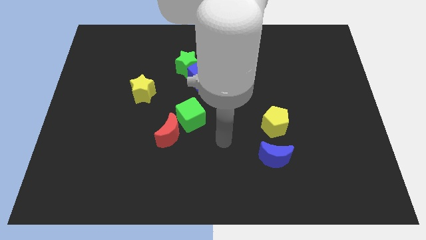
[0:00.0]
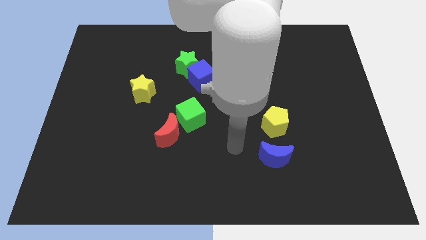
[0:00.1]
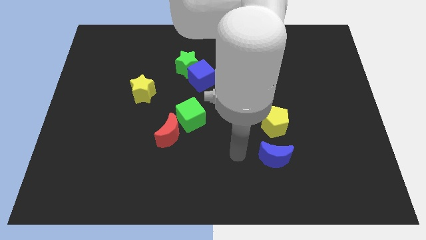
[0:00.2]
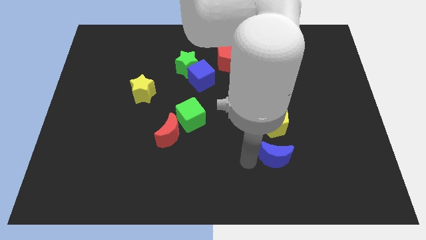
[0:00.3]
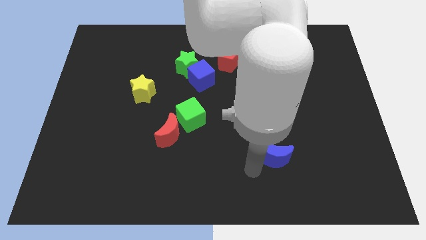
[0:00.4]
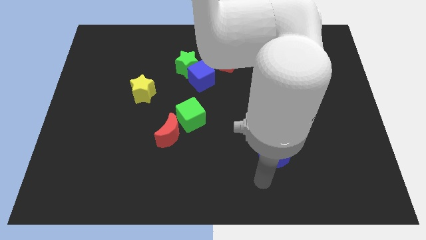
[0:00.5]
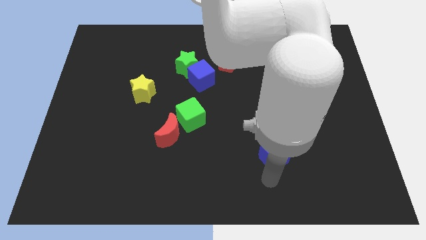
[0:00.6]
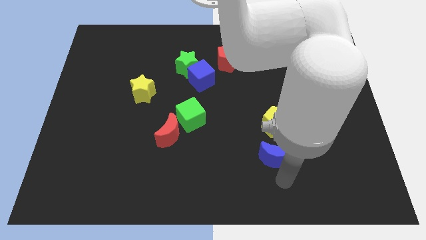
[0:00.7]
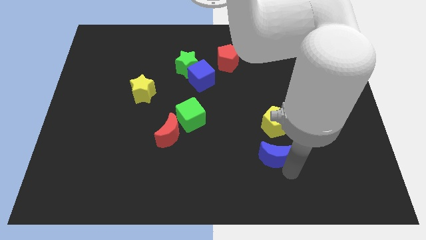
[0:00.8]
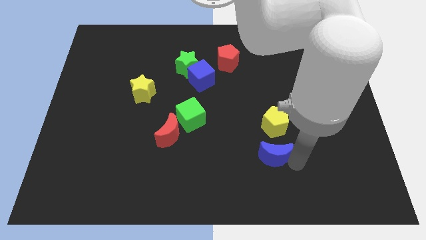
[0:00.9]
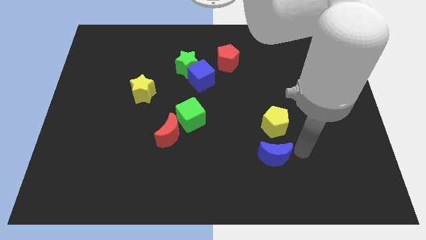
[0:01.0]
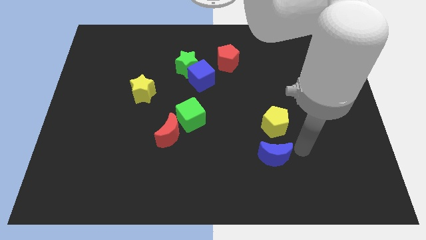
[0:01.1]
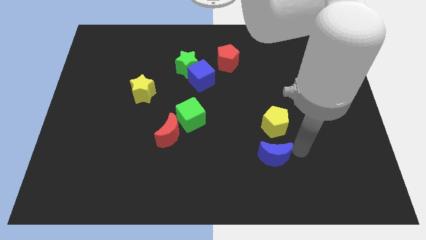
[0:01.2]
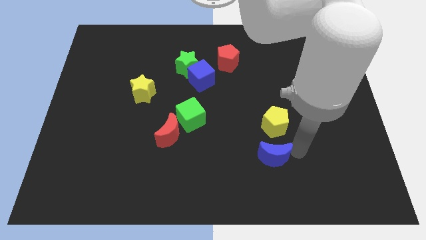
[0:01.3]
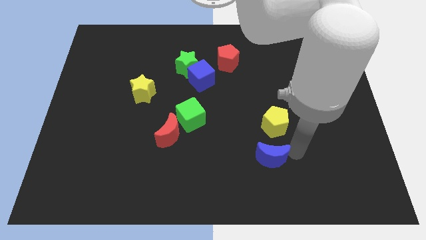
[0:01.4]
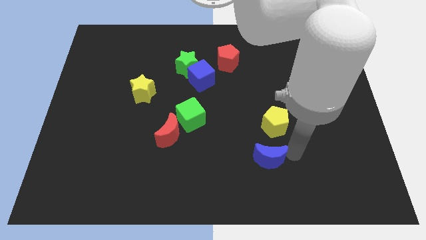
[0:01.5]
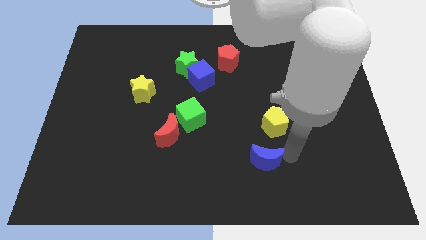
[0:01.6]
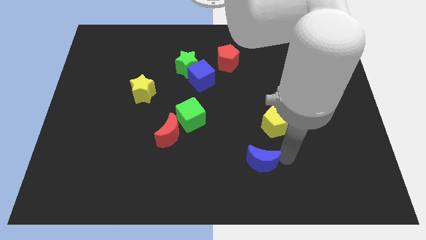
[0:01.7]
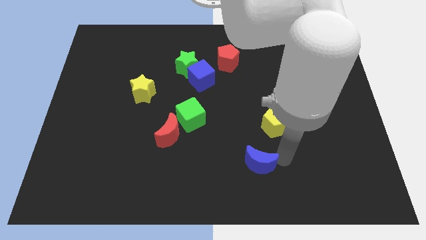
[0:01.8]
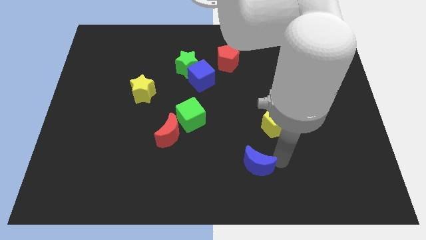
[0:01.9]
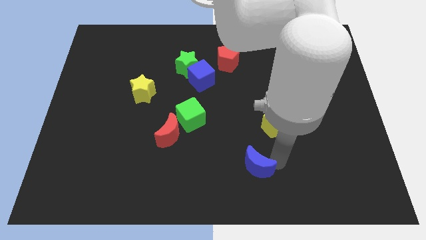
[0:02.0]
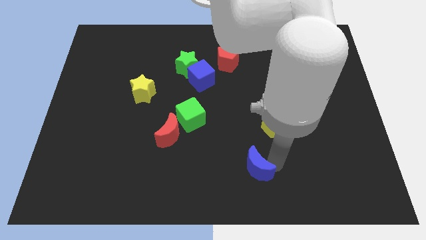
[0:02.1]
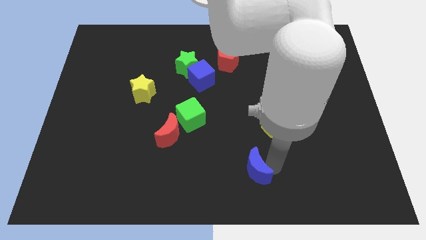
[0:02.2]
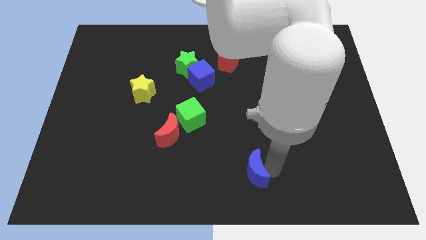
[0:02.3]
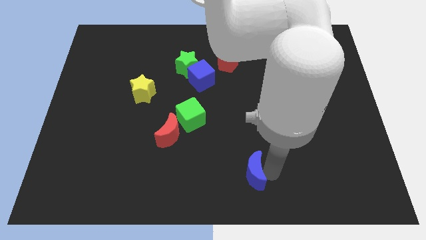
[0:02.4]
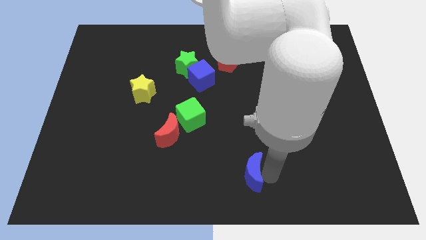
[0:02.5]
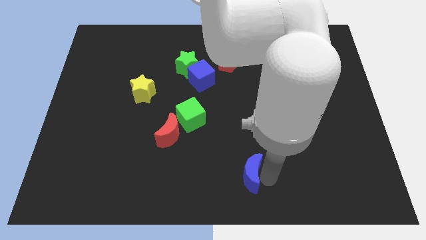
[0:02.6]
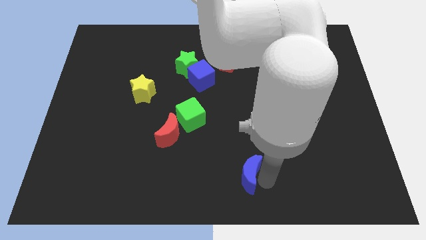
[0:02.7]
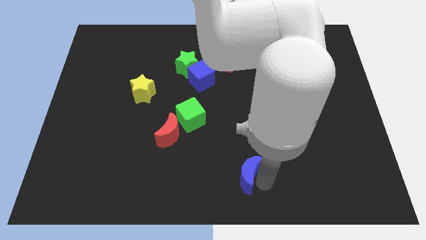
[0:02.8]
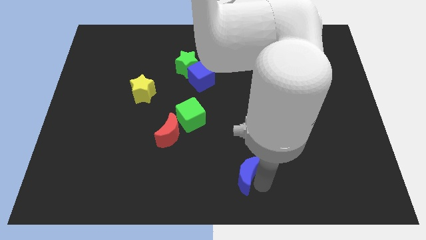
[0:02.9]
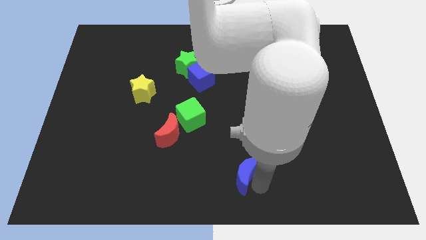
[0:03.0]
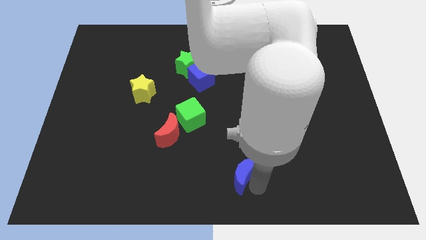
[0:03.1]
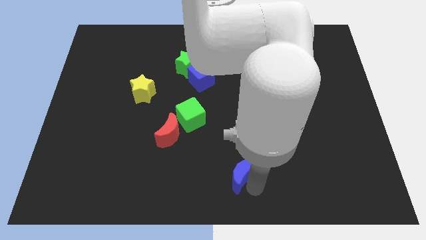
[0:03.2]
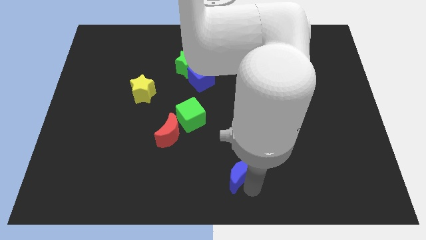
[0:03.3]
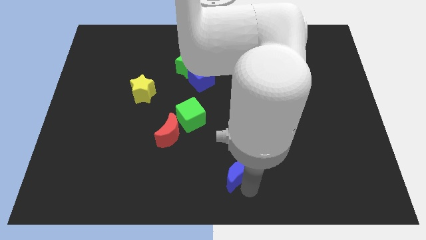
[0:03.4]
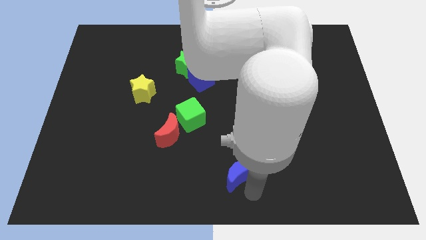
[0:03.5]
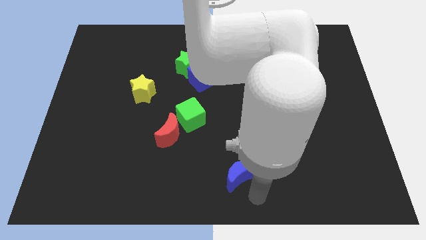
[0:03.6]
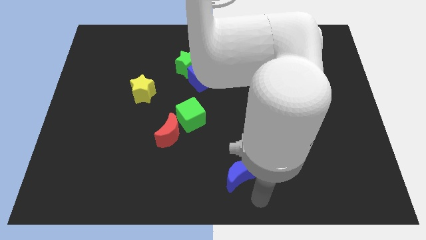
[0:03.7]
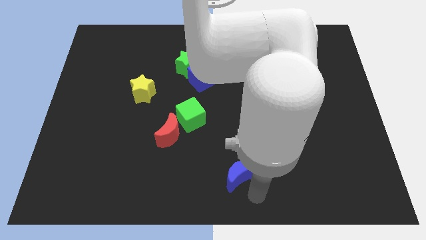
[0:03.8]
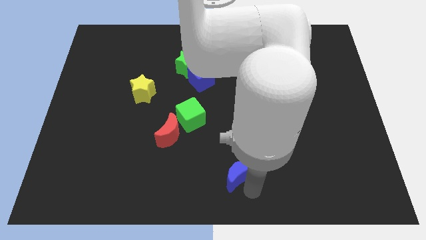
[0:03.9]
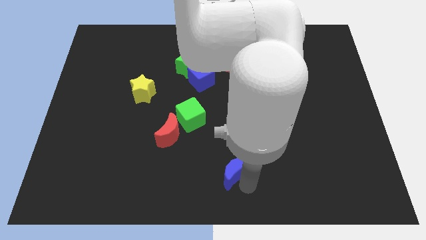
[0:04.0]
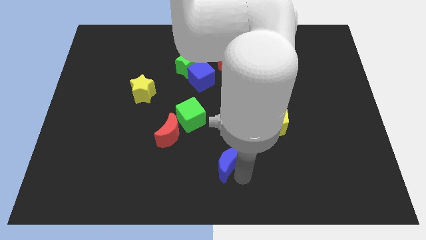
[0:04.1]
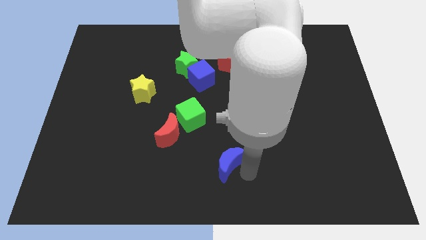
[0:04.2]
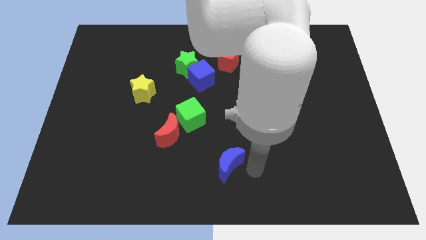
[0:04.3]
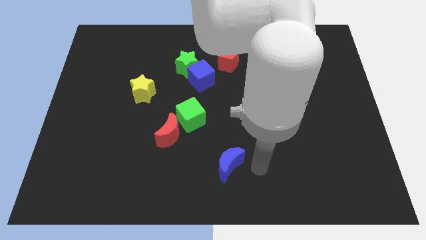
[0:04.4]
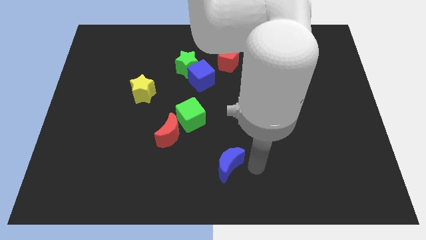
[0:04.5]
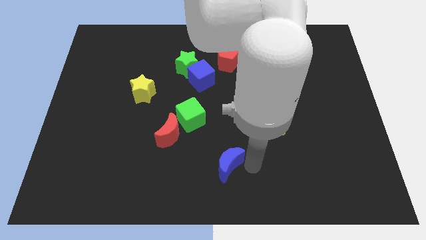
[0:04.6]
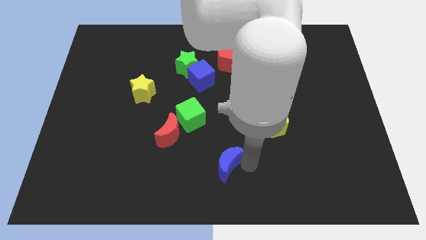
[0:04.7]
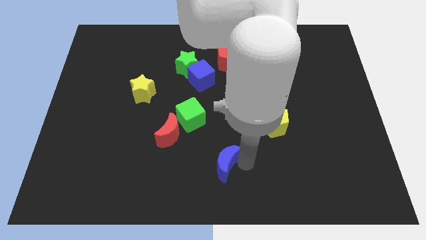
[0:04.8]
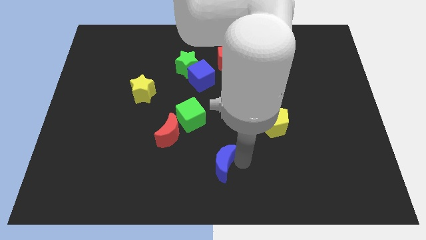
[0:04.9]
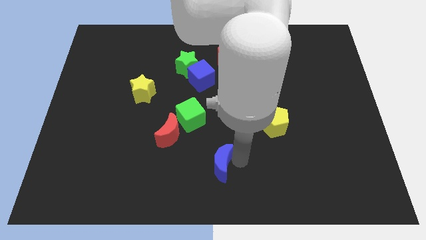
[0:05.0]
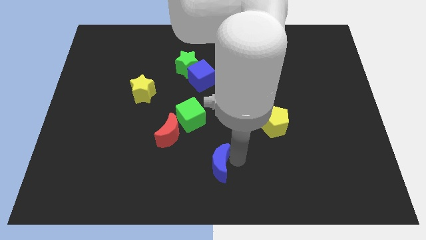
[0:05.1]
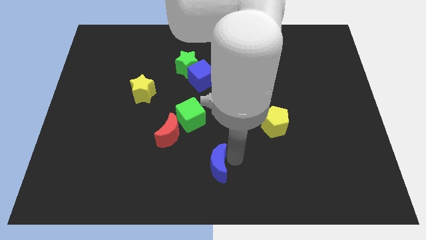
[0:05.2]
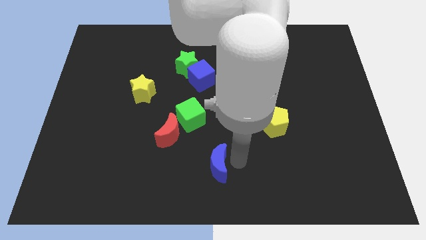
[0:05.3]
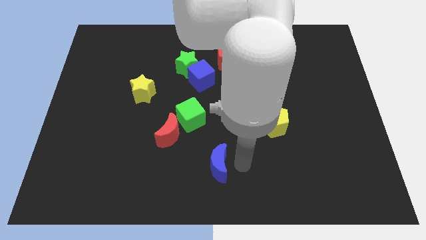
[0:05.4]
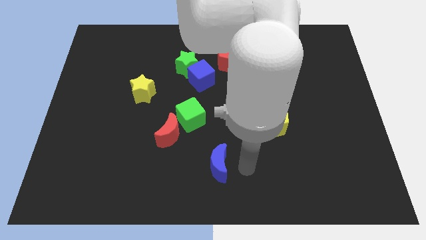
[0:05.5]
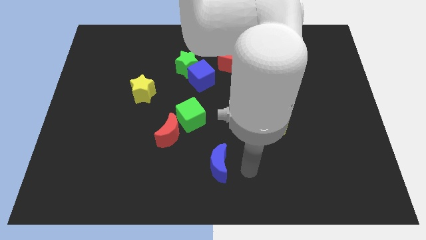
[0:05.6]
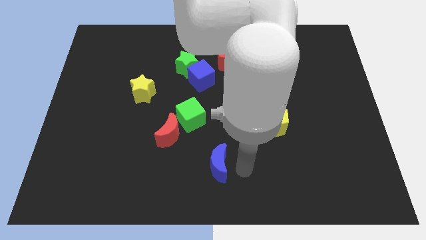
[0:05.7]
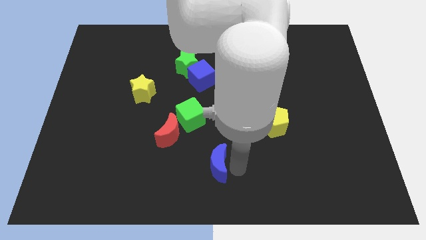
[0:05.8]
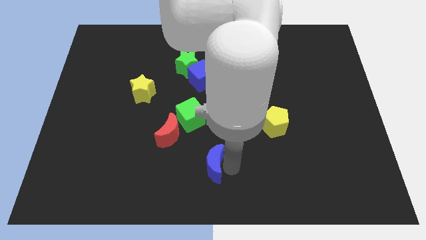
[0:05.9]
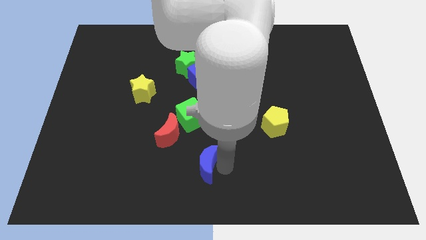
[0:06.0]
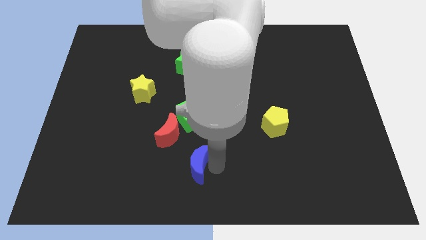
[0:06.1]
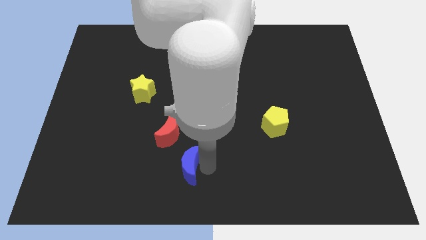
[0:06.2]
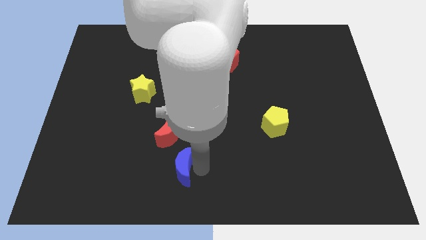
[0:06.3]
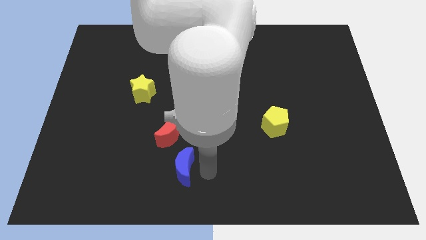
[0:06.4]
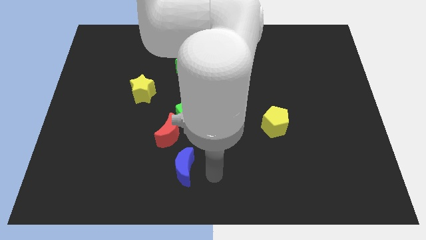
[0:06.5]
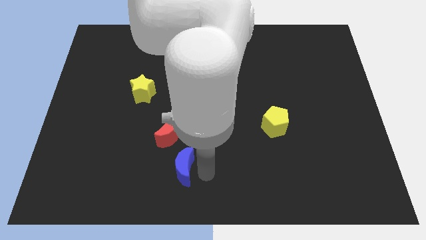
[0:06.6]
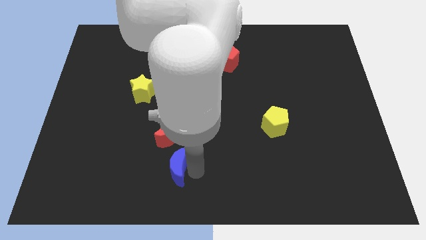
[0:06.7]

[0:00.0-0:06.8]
slide the blue moon left

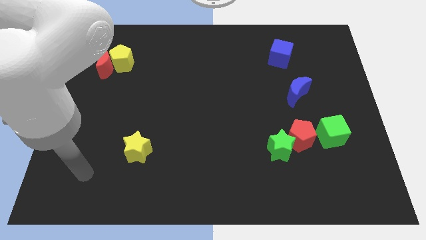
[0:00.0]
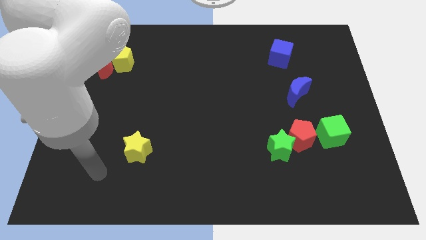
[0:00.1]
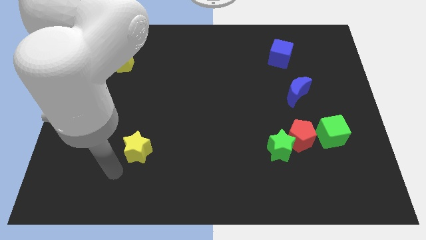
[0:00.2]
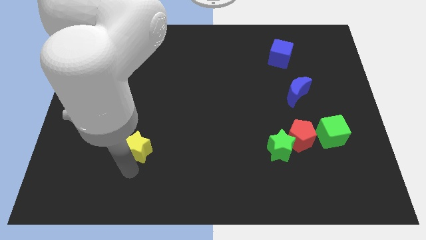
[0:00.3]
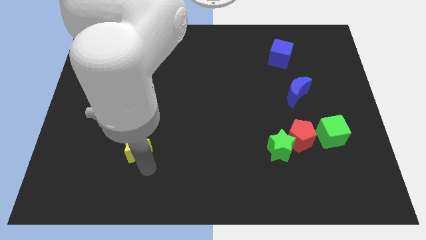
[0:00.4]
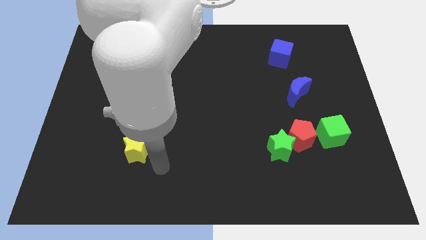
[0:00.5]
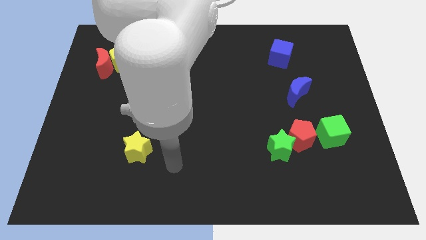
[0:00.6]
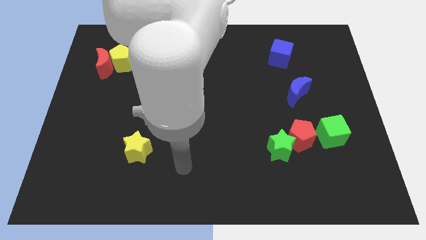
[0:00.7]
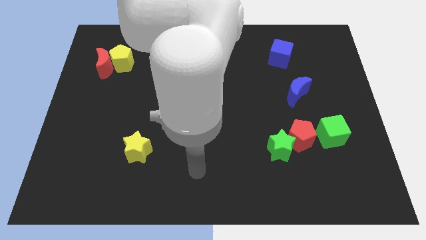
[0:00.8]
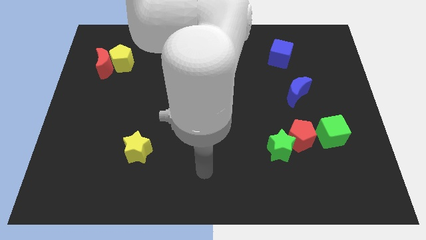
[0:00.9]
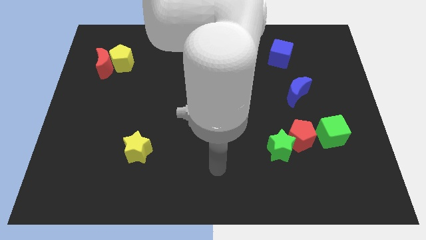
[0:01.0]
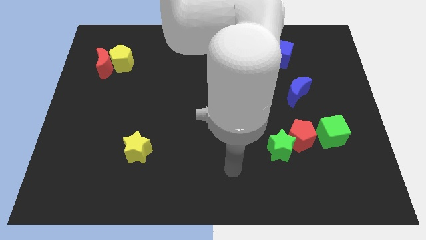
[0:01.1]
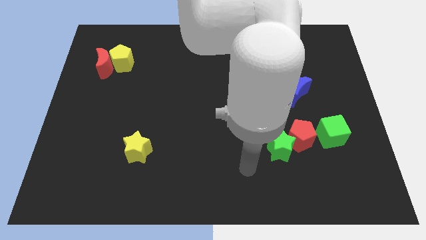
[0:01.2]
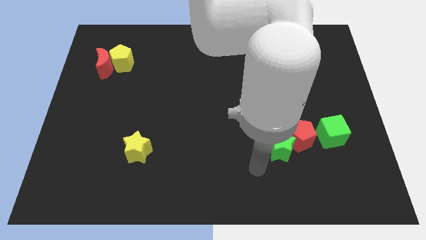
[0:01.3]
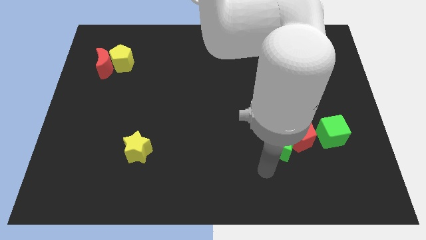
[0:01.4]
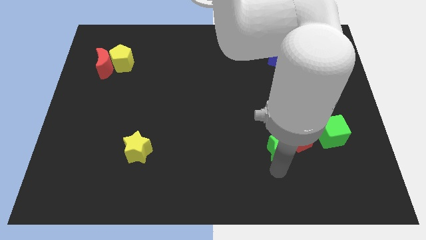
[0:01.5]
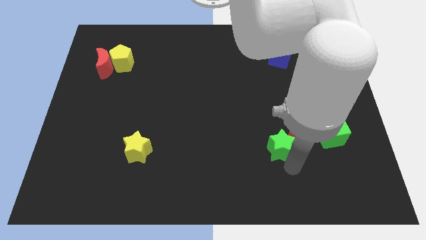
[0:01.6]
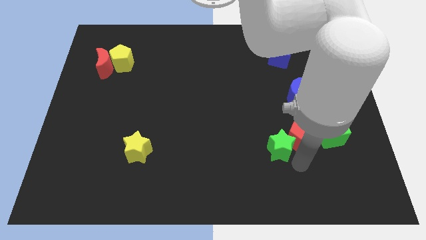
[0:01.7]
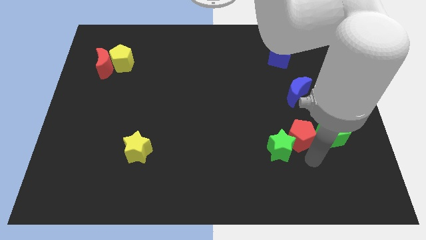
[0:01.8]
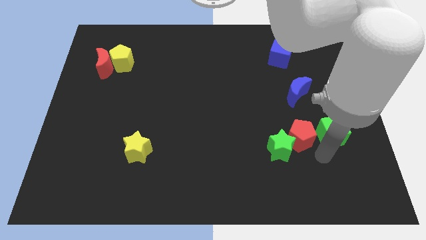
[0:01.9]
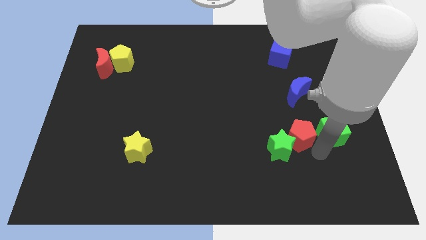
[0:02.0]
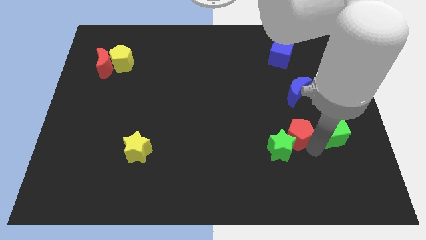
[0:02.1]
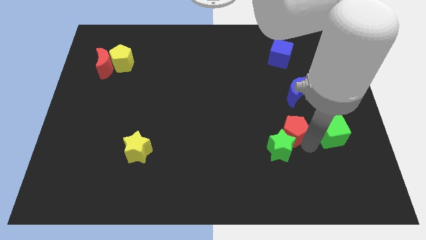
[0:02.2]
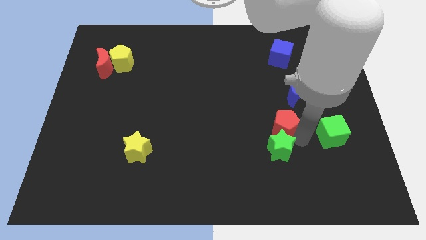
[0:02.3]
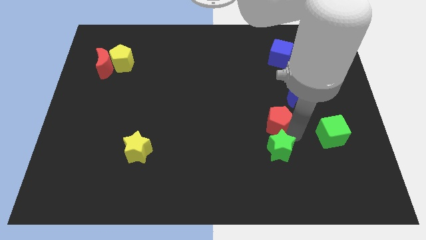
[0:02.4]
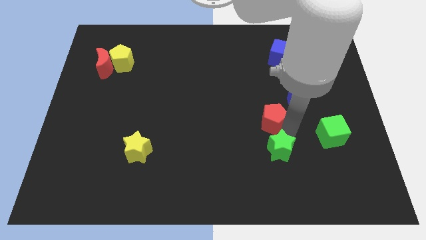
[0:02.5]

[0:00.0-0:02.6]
slide the red pentagon up and then left a little bit
